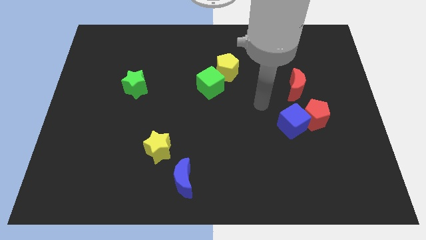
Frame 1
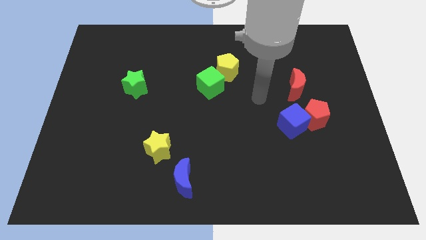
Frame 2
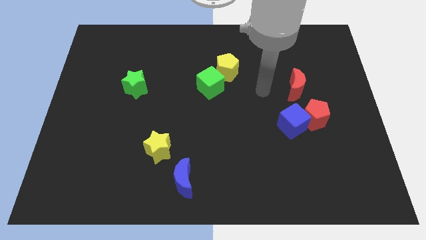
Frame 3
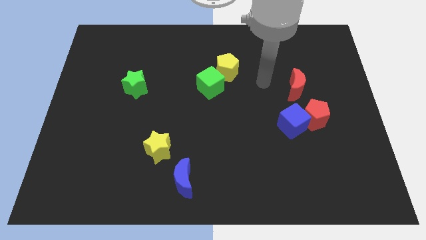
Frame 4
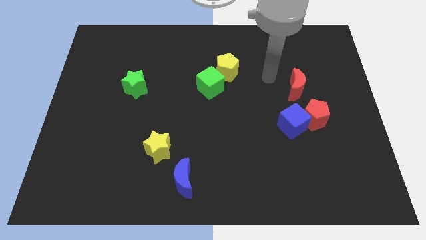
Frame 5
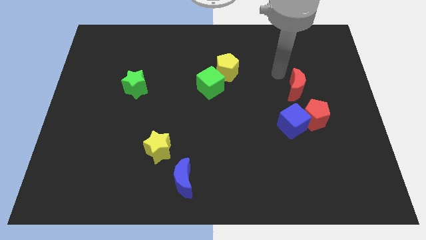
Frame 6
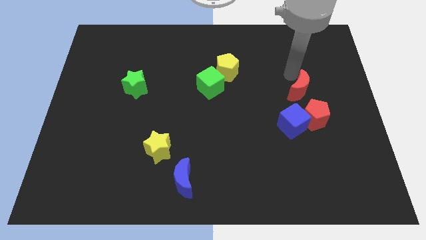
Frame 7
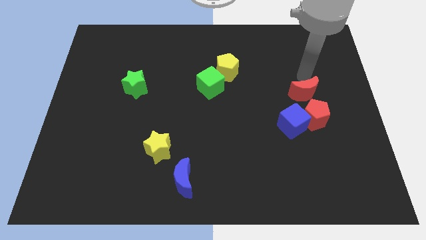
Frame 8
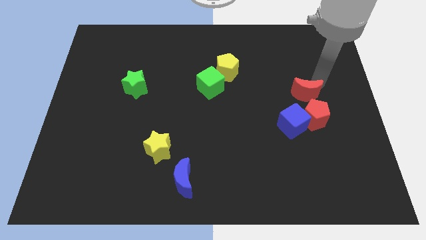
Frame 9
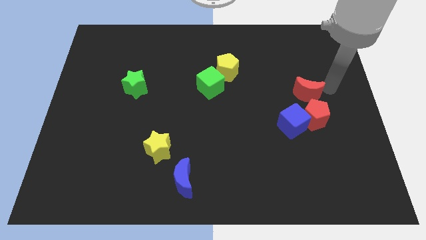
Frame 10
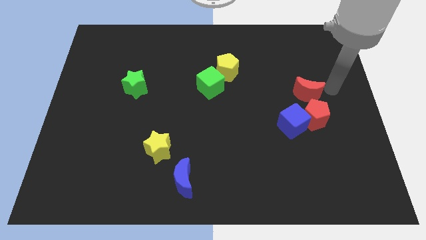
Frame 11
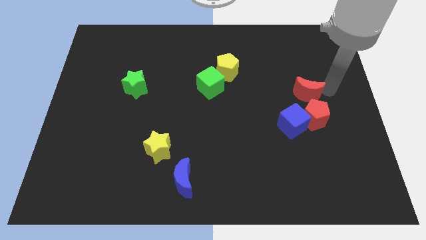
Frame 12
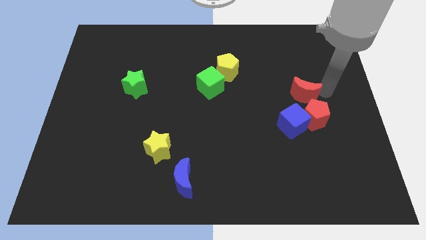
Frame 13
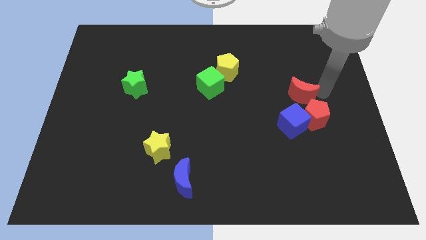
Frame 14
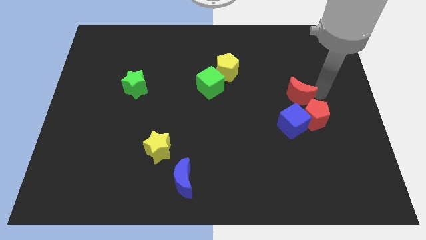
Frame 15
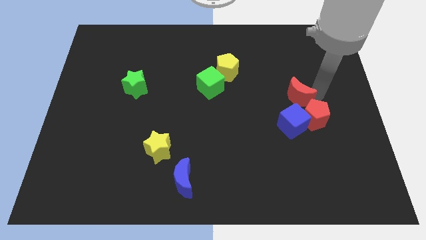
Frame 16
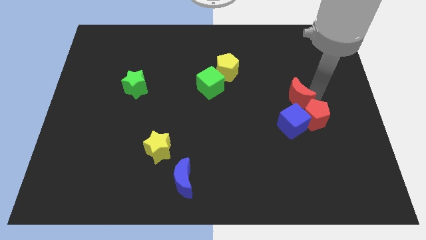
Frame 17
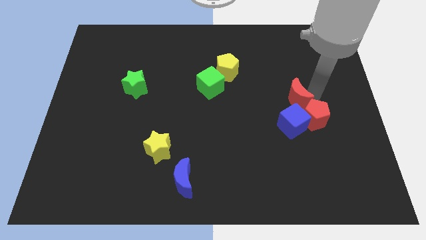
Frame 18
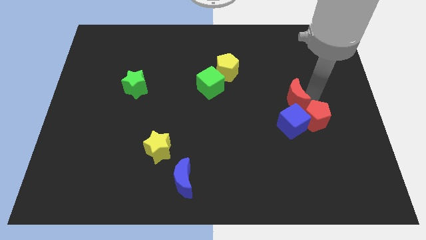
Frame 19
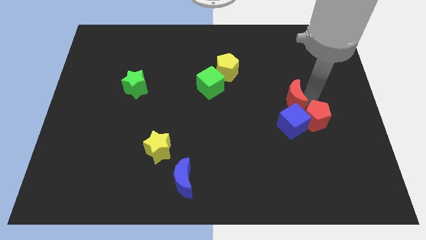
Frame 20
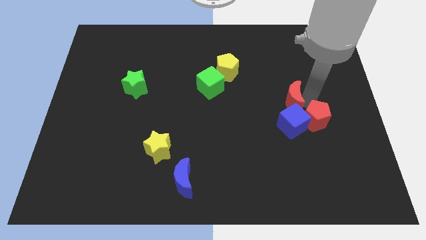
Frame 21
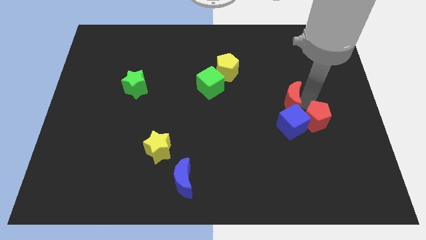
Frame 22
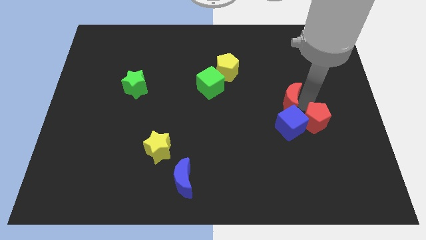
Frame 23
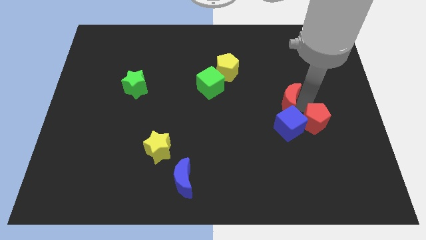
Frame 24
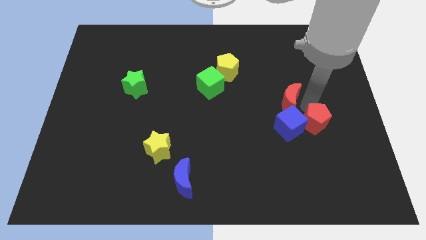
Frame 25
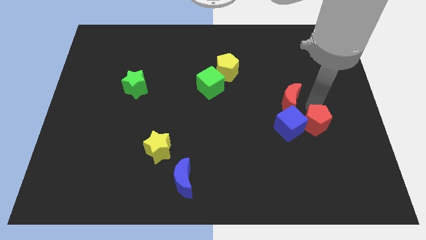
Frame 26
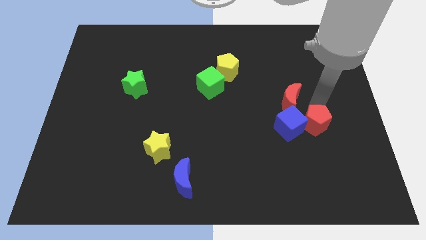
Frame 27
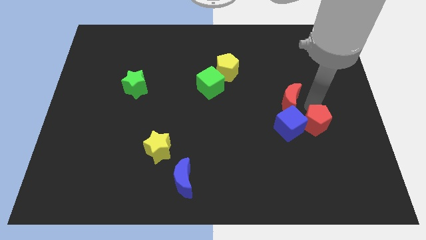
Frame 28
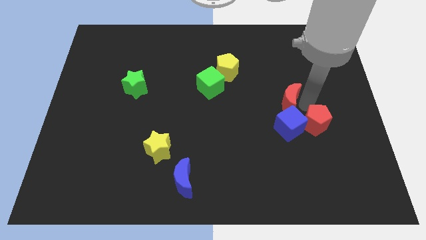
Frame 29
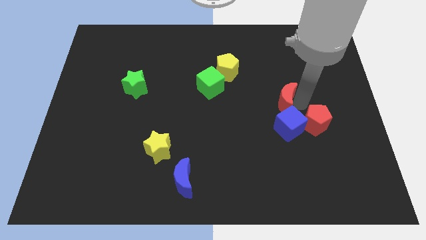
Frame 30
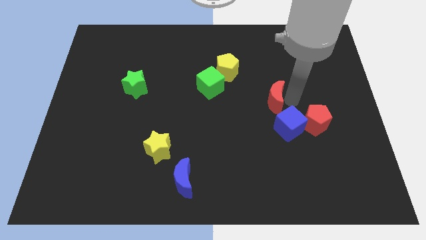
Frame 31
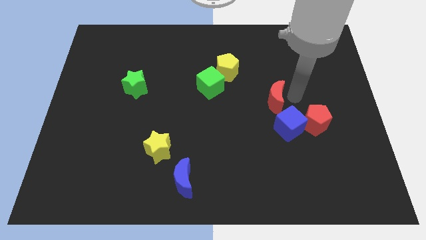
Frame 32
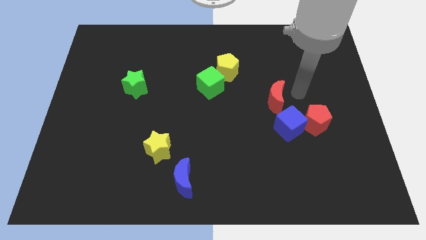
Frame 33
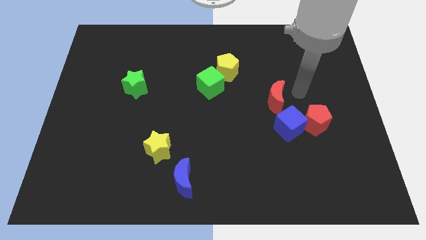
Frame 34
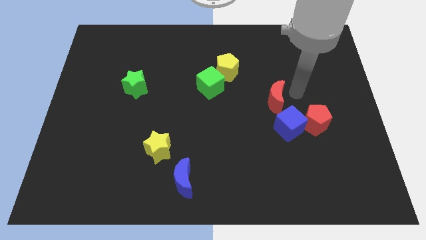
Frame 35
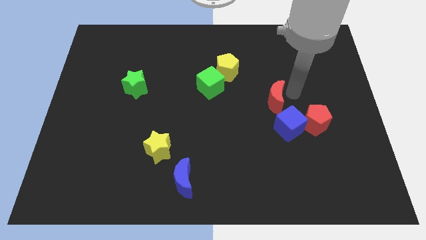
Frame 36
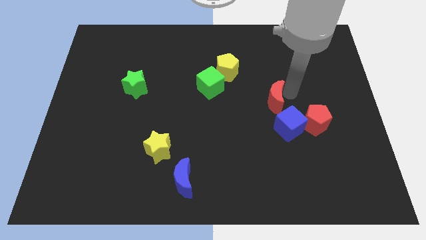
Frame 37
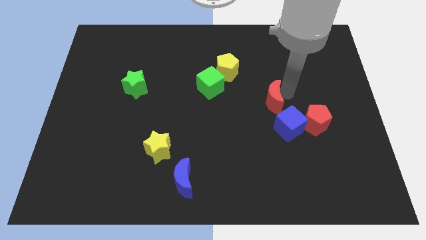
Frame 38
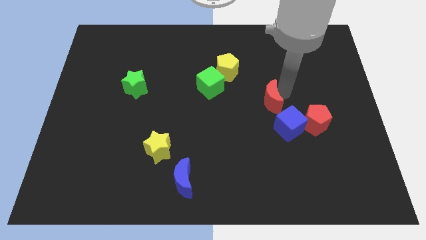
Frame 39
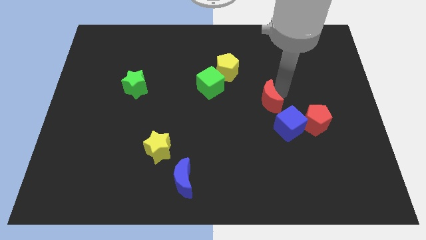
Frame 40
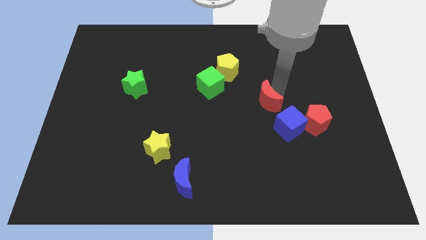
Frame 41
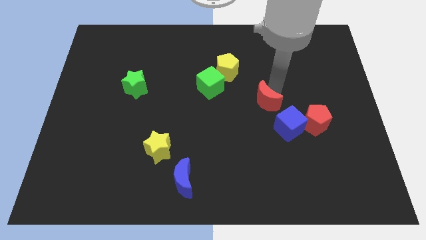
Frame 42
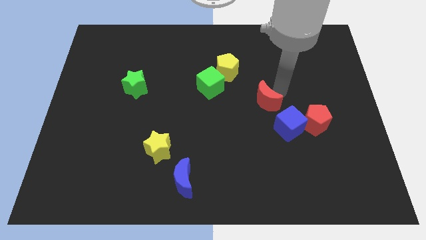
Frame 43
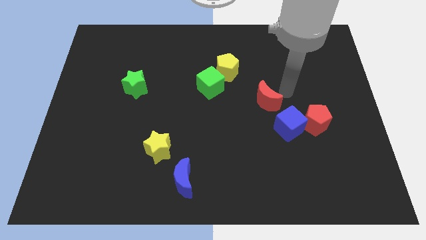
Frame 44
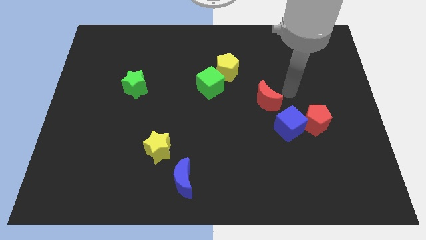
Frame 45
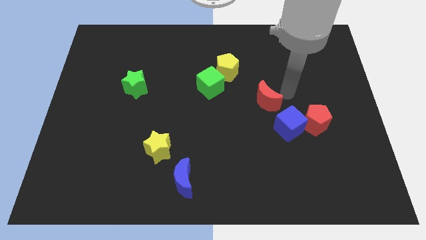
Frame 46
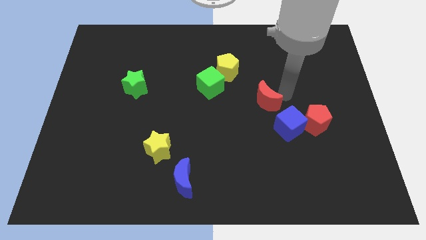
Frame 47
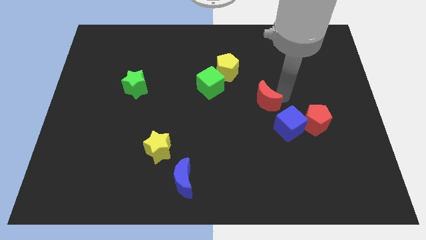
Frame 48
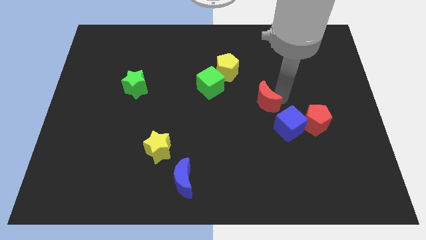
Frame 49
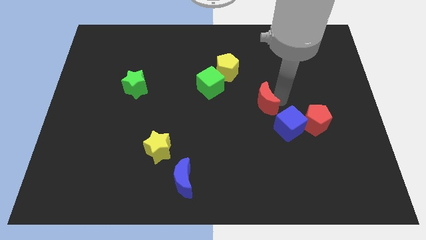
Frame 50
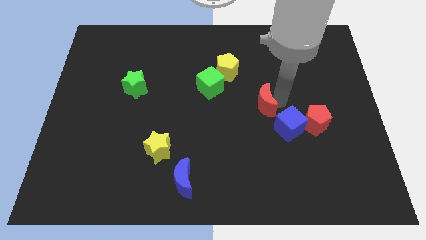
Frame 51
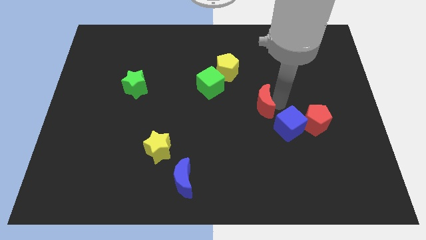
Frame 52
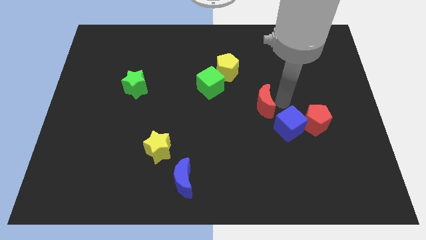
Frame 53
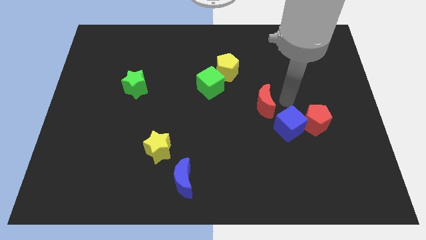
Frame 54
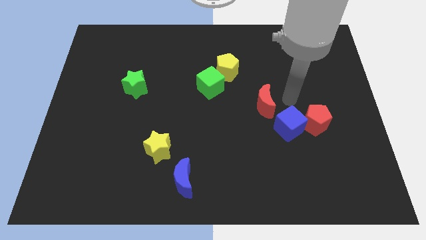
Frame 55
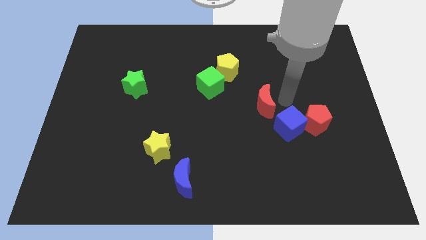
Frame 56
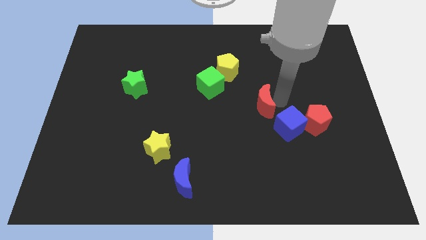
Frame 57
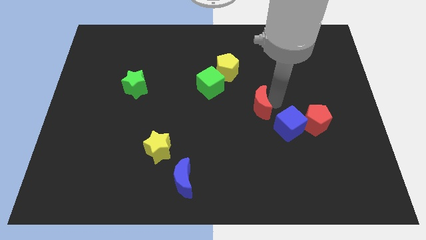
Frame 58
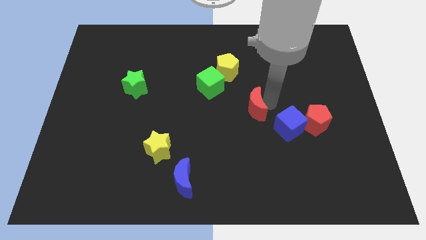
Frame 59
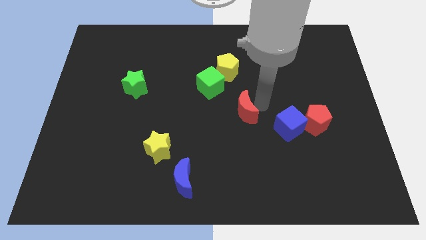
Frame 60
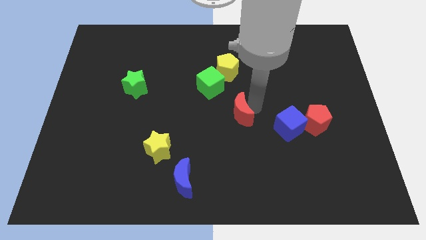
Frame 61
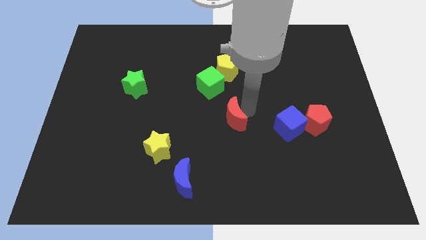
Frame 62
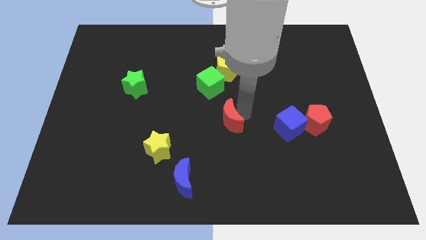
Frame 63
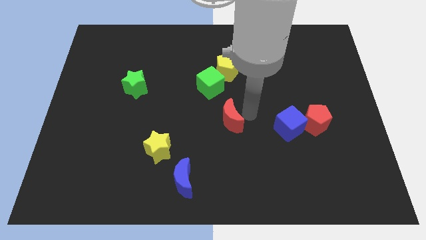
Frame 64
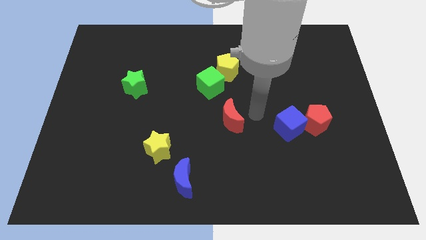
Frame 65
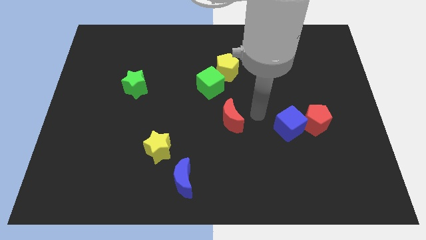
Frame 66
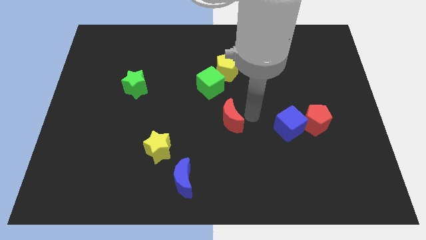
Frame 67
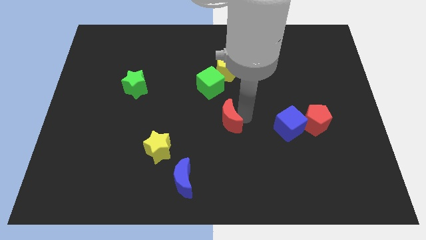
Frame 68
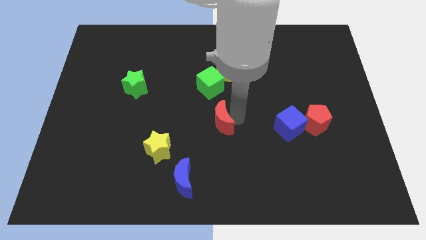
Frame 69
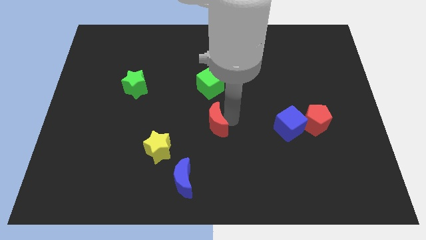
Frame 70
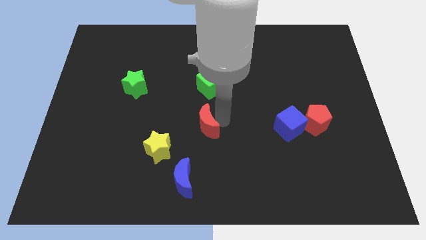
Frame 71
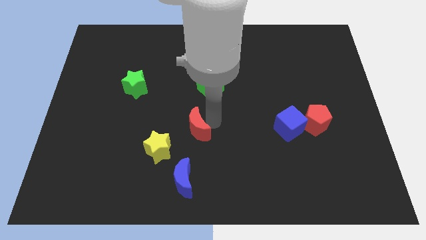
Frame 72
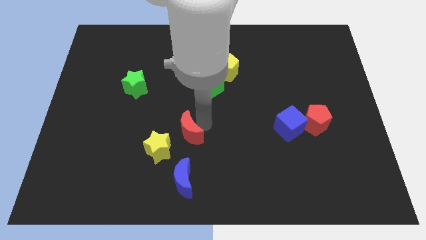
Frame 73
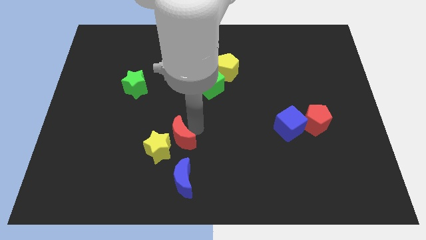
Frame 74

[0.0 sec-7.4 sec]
slide the red moon to the yellow star
